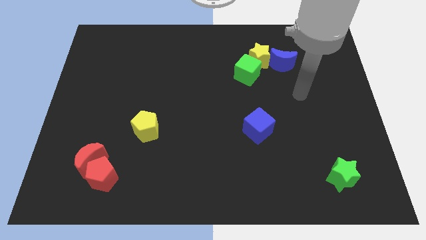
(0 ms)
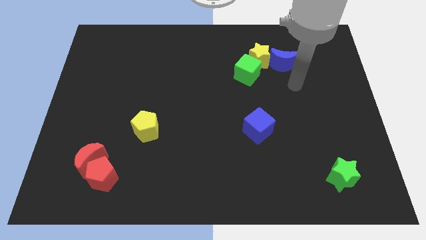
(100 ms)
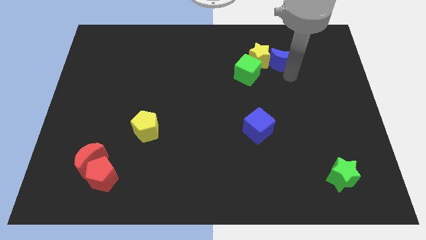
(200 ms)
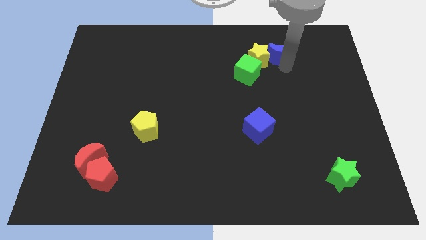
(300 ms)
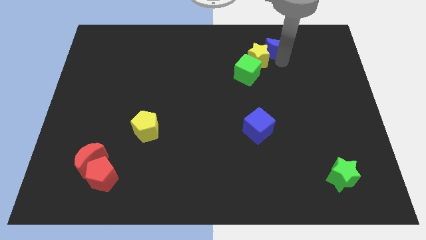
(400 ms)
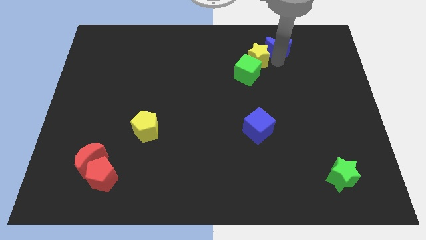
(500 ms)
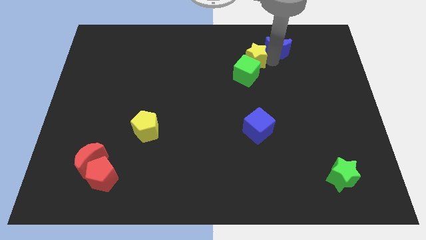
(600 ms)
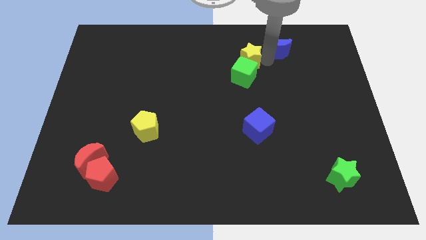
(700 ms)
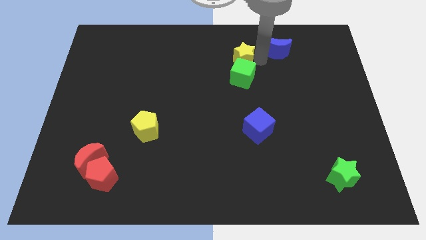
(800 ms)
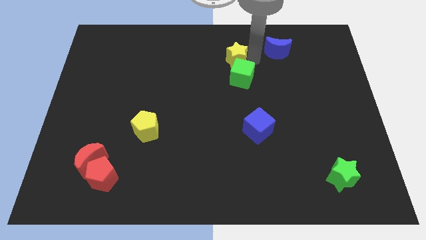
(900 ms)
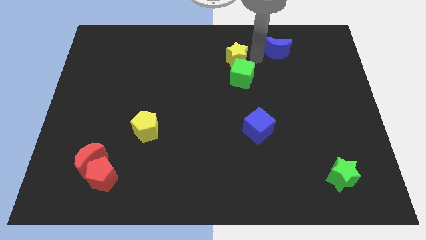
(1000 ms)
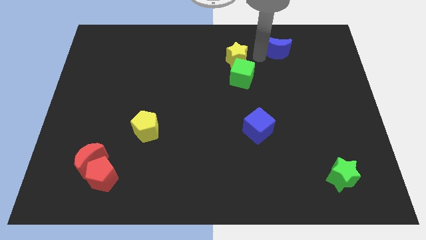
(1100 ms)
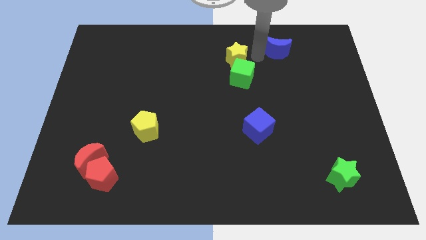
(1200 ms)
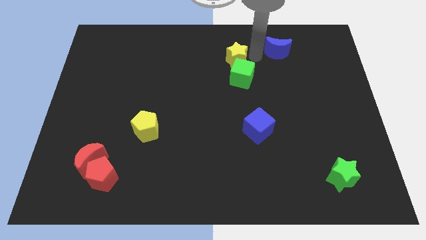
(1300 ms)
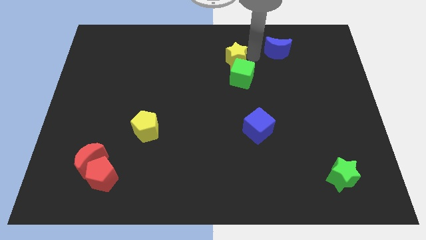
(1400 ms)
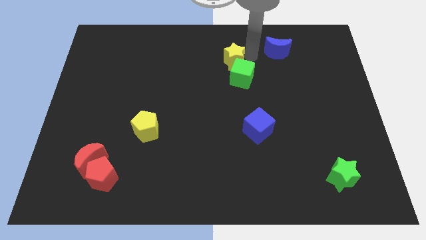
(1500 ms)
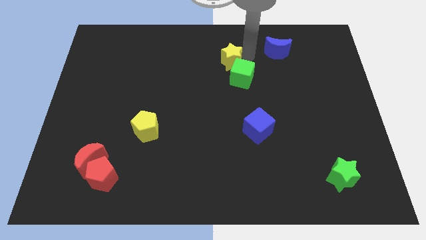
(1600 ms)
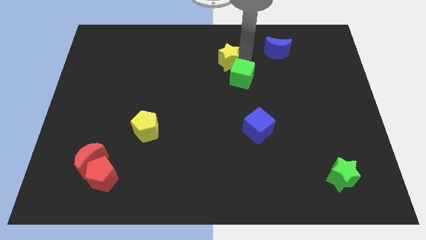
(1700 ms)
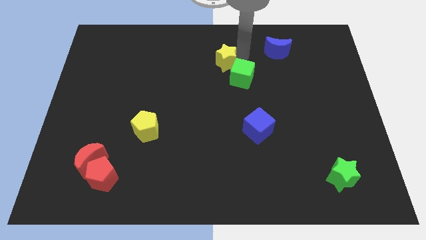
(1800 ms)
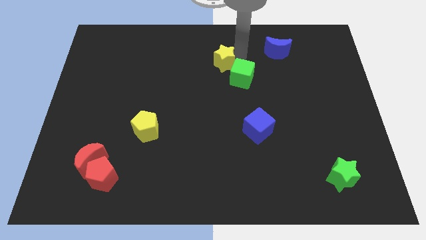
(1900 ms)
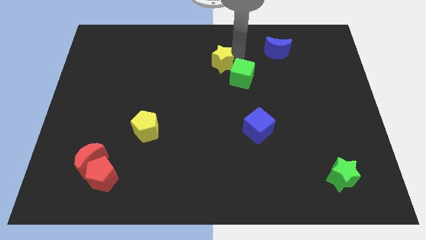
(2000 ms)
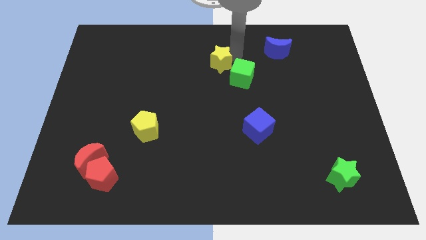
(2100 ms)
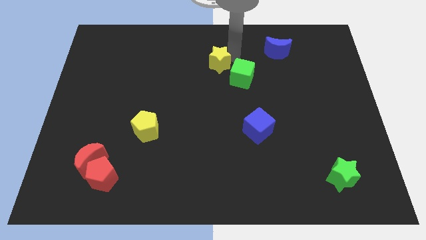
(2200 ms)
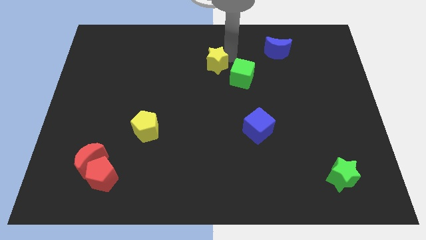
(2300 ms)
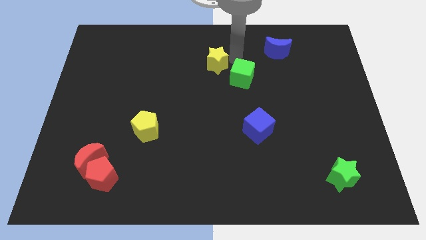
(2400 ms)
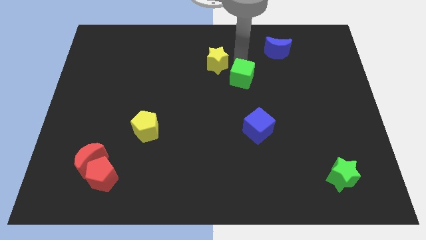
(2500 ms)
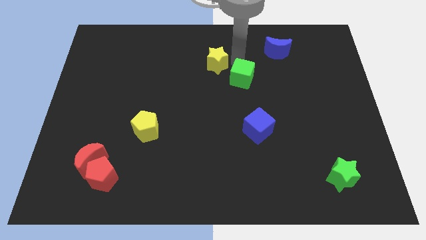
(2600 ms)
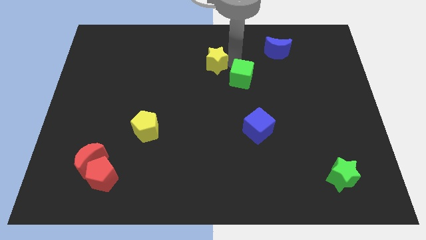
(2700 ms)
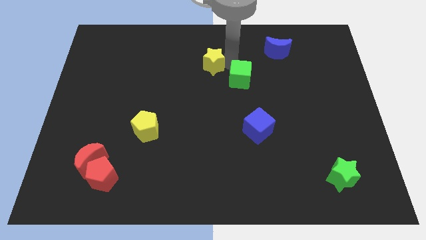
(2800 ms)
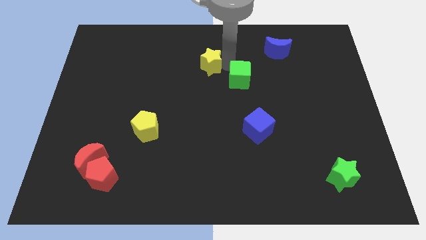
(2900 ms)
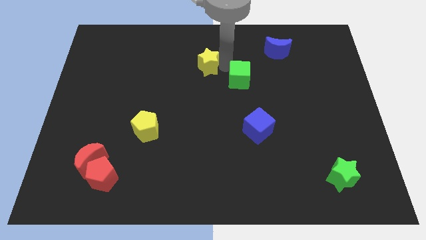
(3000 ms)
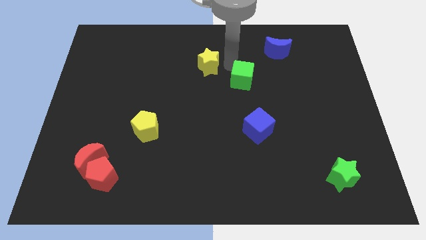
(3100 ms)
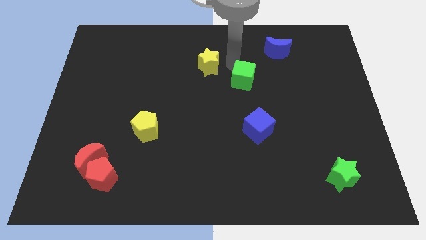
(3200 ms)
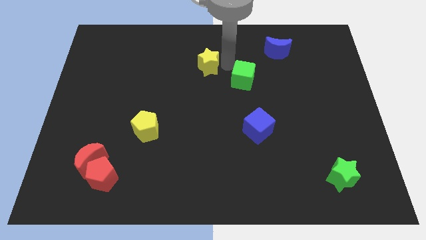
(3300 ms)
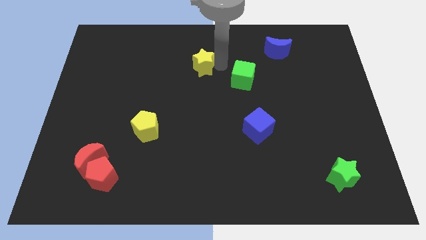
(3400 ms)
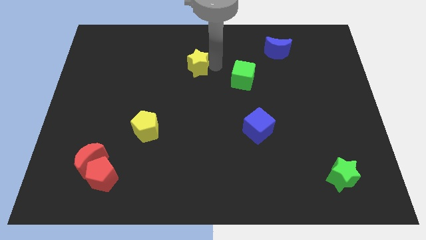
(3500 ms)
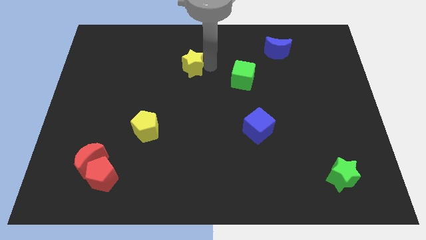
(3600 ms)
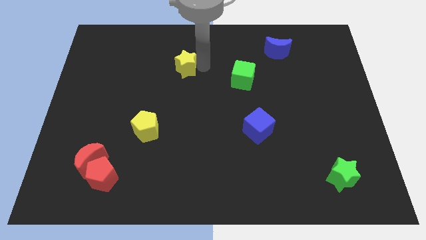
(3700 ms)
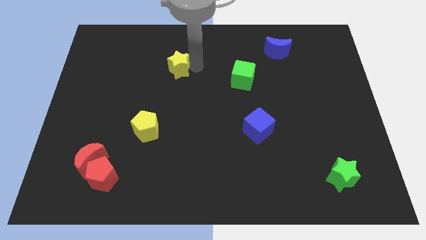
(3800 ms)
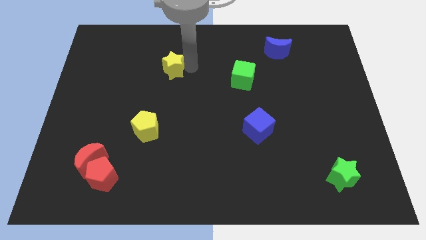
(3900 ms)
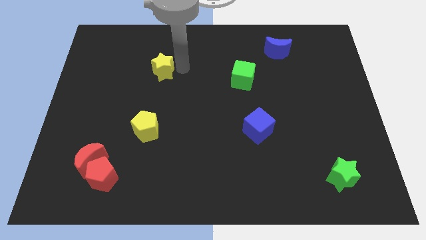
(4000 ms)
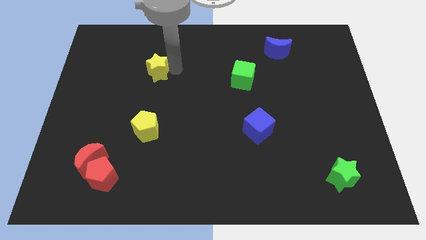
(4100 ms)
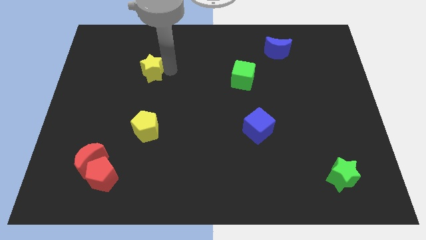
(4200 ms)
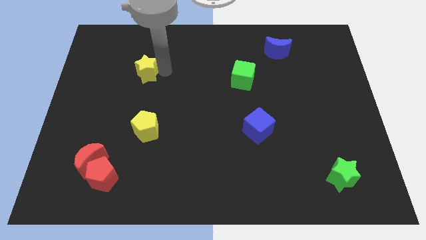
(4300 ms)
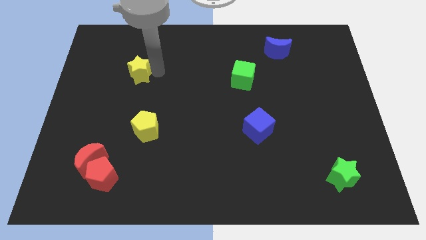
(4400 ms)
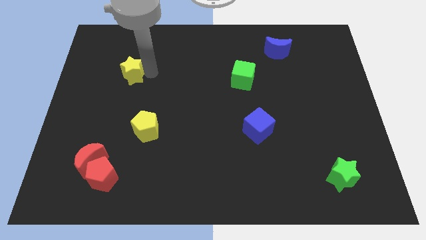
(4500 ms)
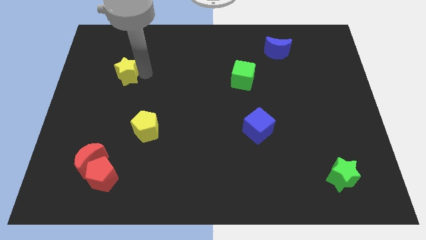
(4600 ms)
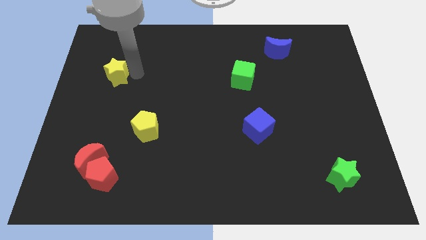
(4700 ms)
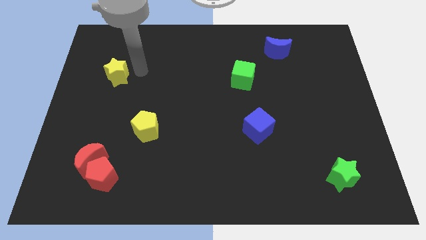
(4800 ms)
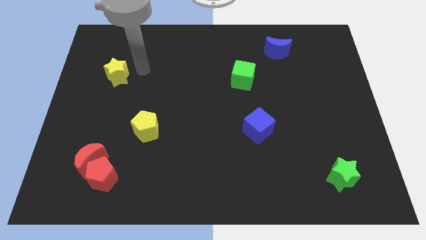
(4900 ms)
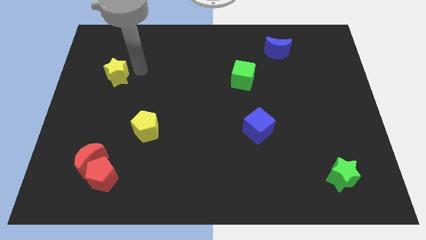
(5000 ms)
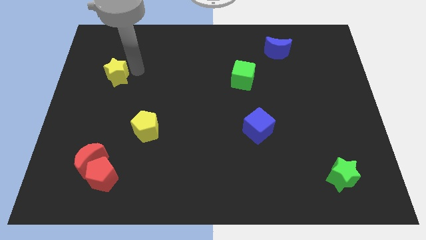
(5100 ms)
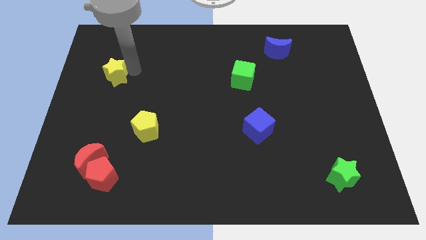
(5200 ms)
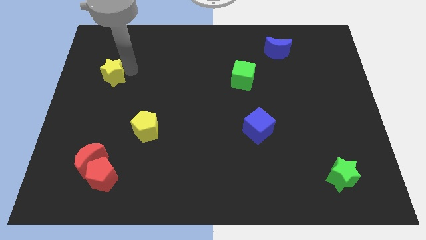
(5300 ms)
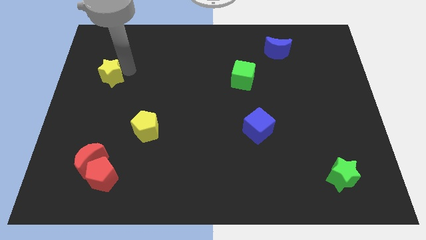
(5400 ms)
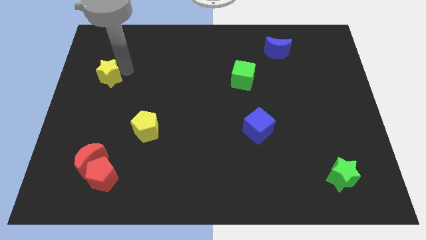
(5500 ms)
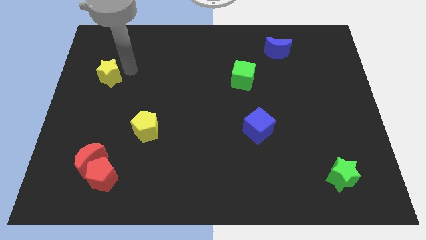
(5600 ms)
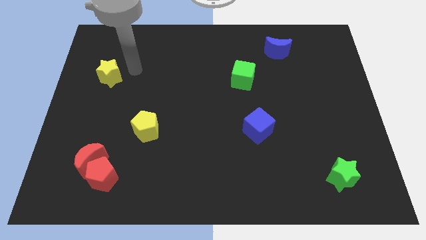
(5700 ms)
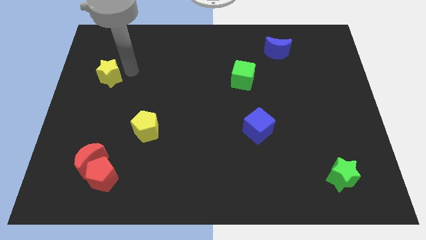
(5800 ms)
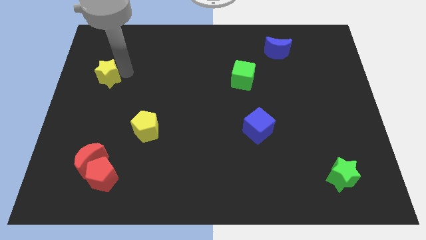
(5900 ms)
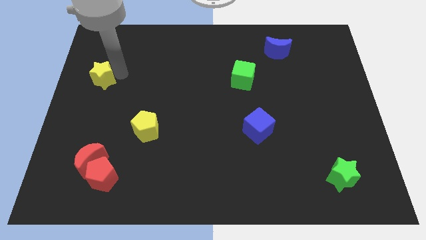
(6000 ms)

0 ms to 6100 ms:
move the yellow star to the center left

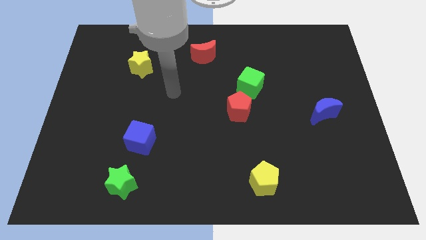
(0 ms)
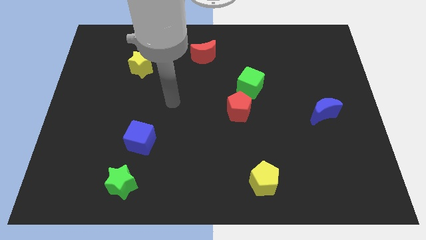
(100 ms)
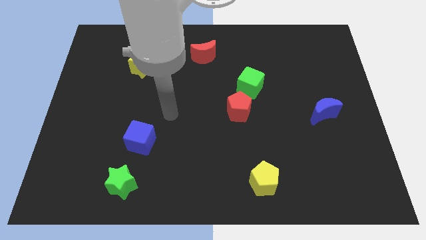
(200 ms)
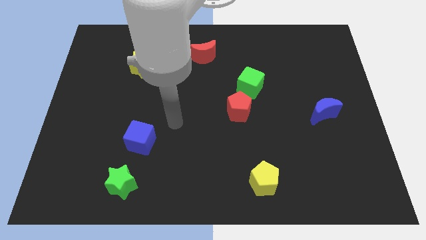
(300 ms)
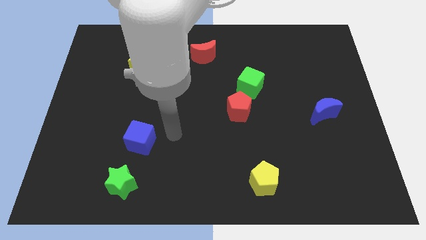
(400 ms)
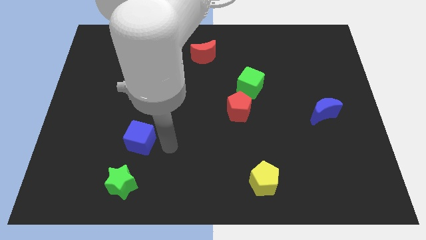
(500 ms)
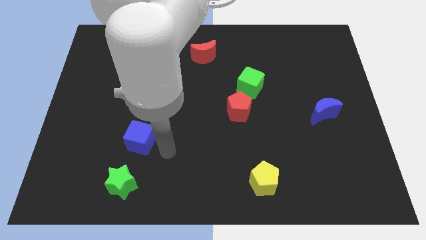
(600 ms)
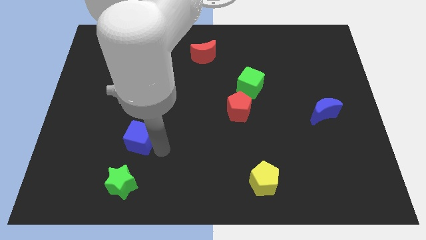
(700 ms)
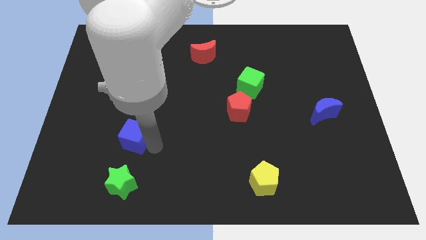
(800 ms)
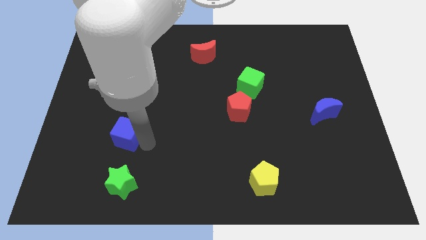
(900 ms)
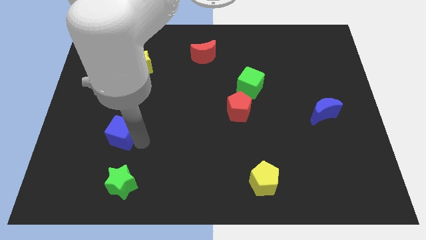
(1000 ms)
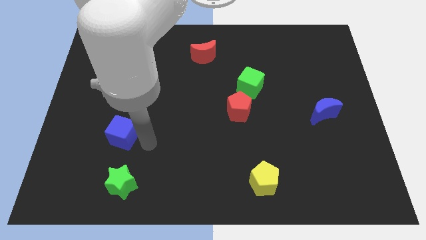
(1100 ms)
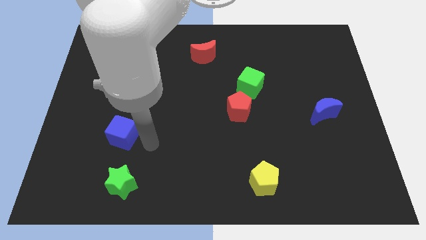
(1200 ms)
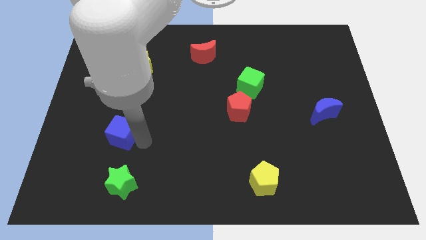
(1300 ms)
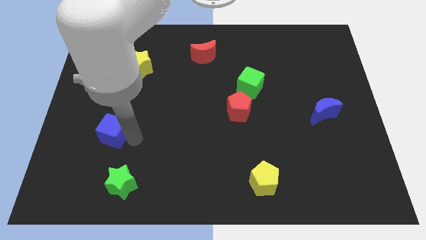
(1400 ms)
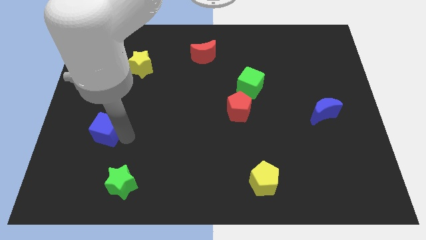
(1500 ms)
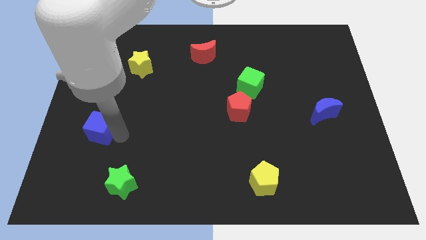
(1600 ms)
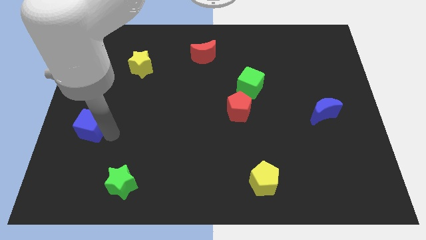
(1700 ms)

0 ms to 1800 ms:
put the blue cube to the left side
